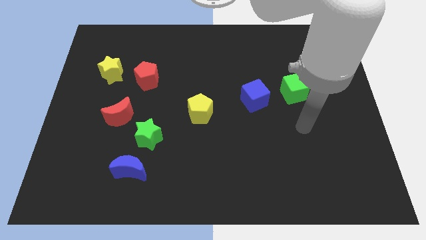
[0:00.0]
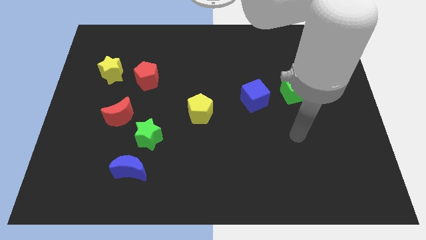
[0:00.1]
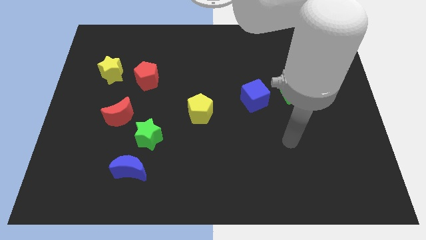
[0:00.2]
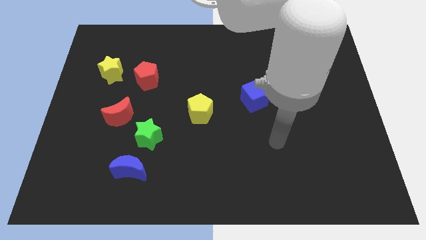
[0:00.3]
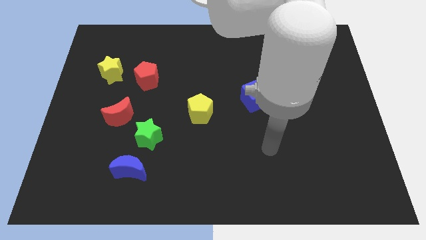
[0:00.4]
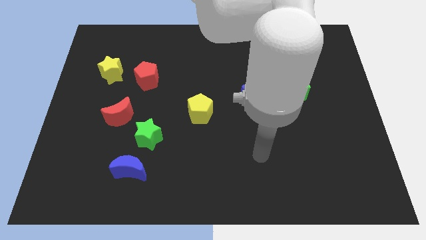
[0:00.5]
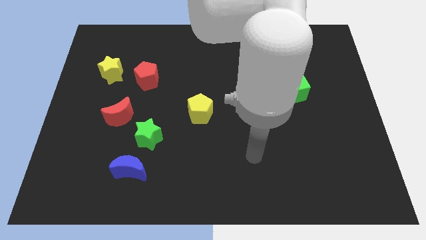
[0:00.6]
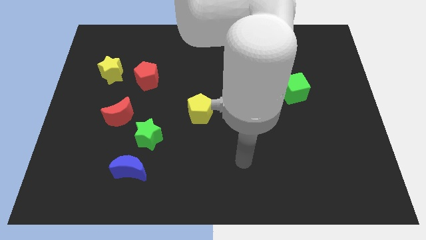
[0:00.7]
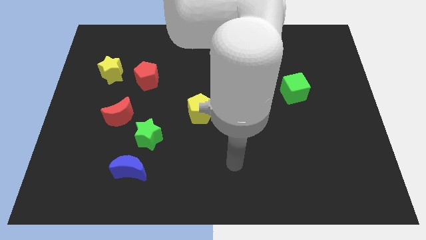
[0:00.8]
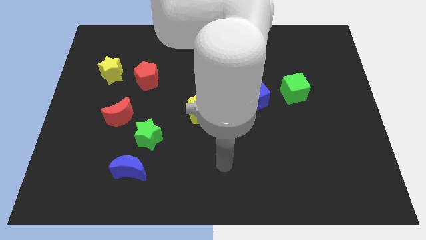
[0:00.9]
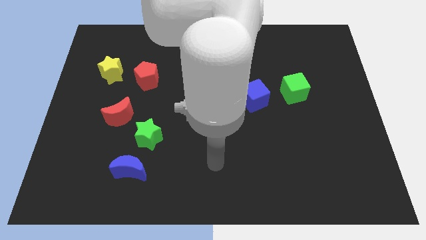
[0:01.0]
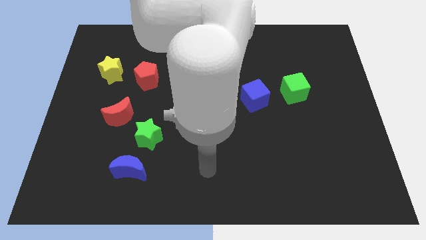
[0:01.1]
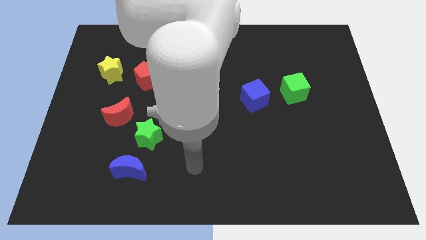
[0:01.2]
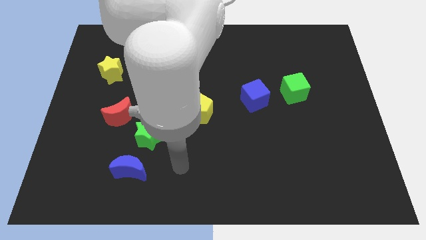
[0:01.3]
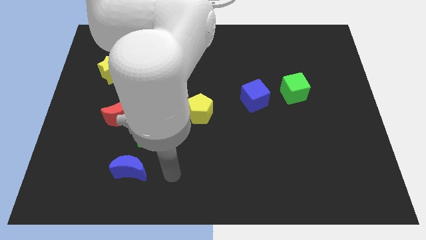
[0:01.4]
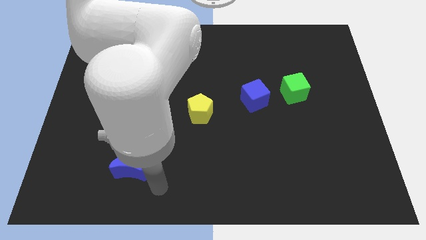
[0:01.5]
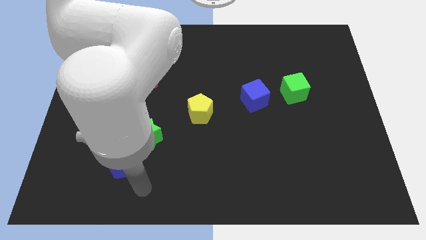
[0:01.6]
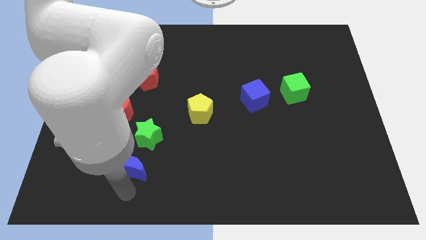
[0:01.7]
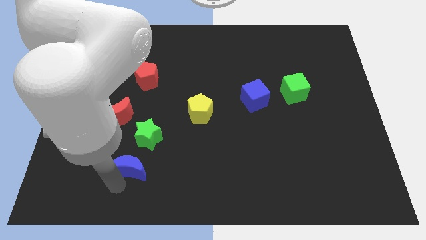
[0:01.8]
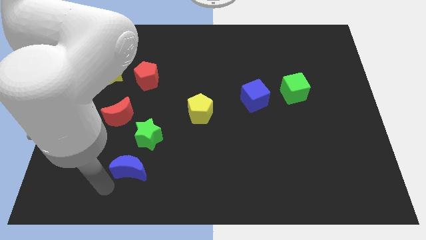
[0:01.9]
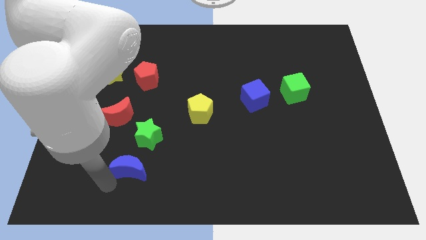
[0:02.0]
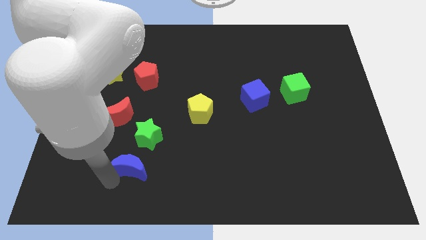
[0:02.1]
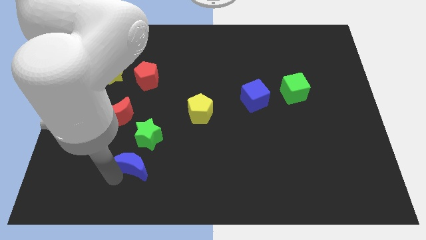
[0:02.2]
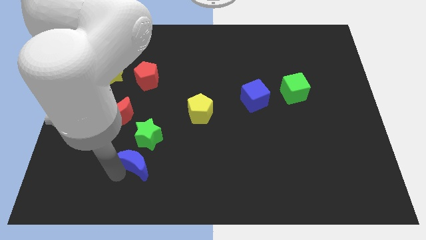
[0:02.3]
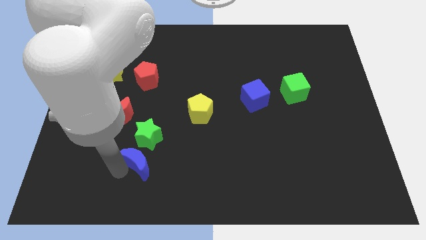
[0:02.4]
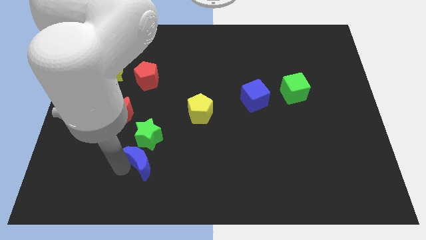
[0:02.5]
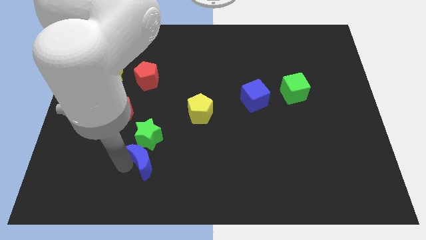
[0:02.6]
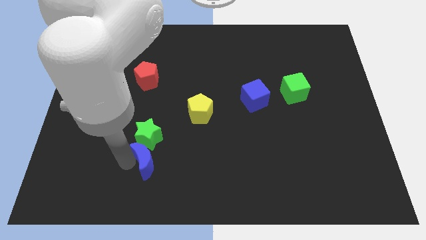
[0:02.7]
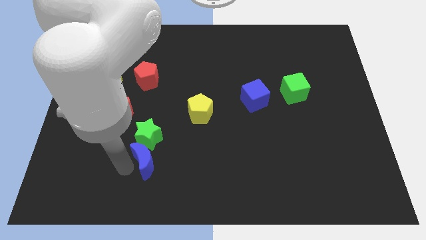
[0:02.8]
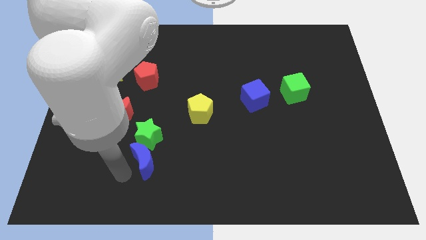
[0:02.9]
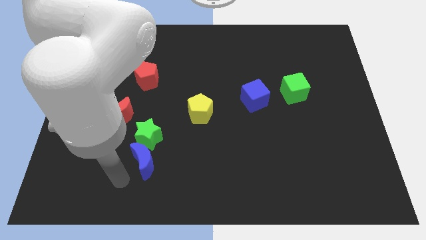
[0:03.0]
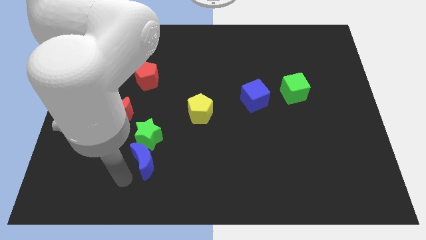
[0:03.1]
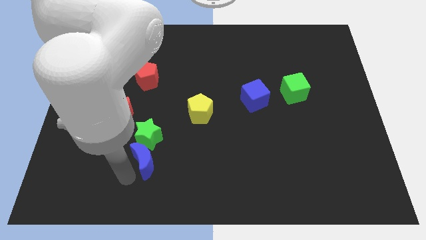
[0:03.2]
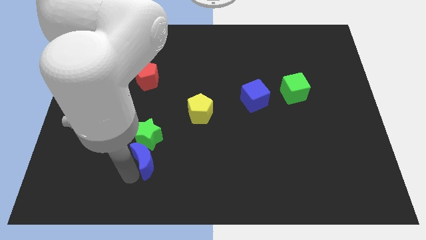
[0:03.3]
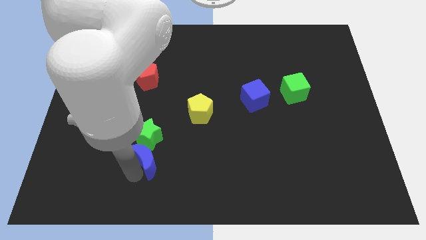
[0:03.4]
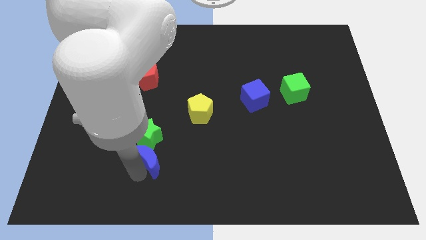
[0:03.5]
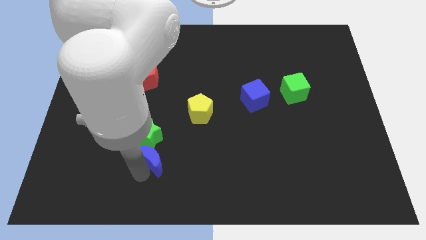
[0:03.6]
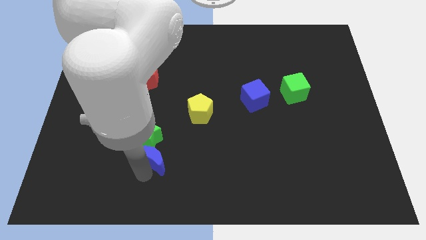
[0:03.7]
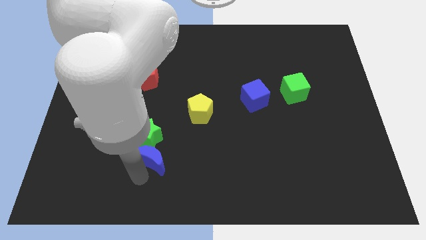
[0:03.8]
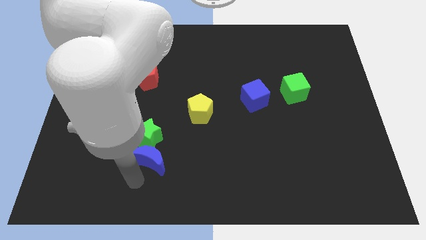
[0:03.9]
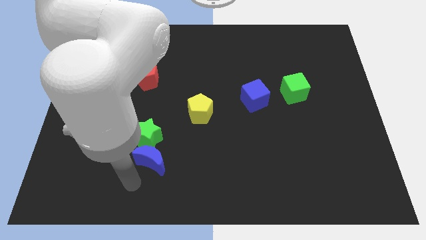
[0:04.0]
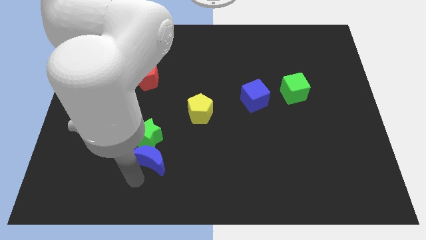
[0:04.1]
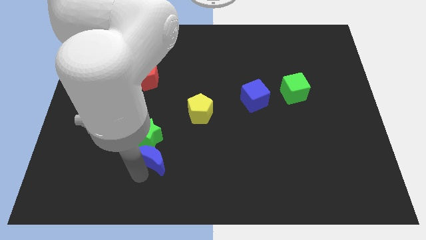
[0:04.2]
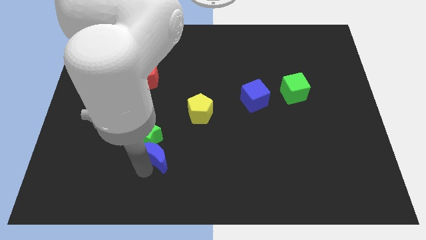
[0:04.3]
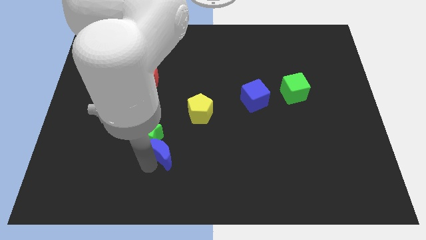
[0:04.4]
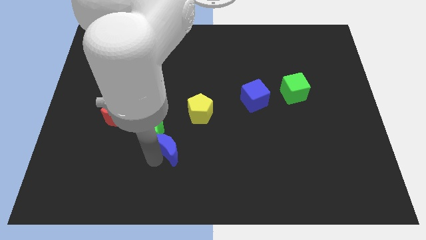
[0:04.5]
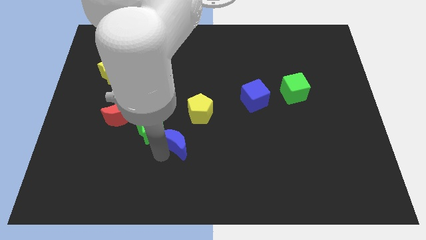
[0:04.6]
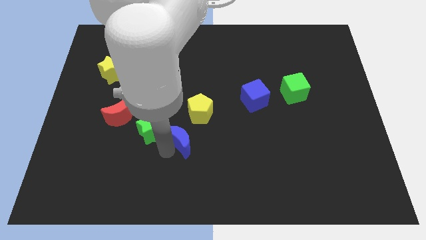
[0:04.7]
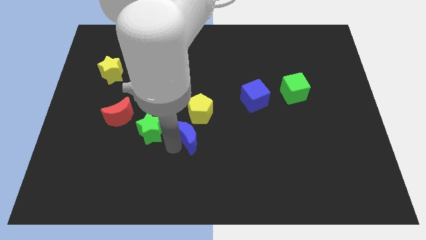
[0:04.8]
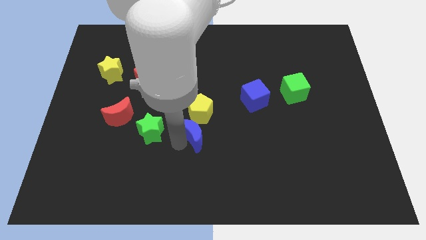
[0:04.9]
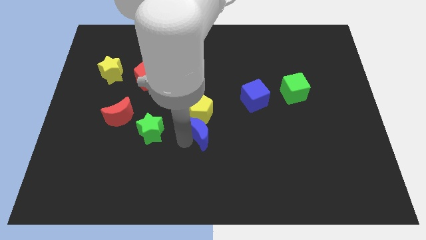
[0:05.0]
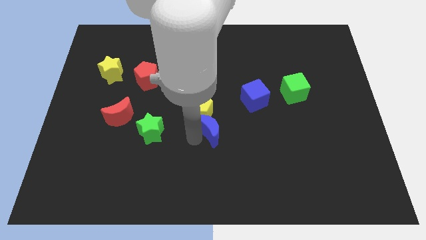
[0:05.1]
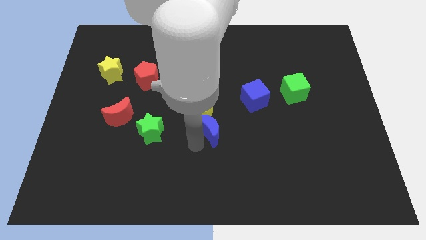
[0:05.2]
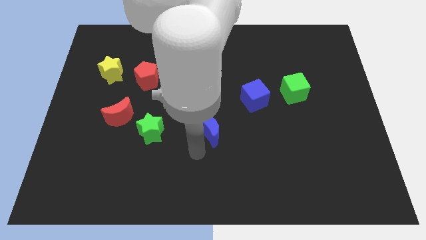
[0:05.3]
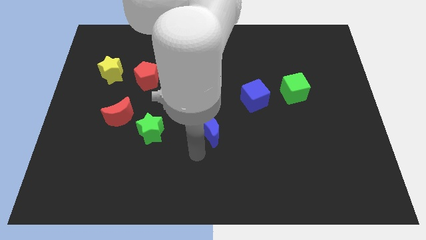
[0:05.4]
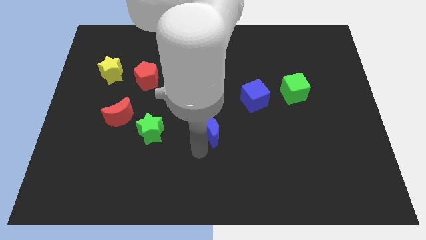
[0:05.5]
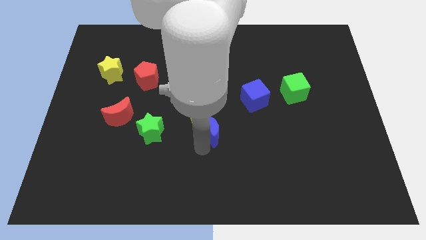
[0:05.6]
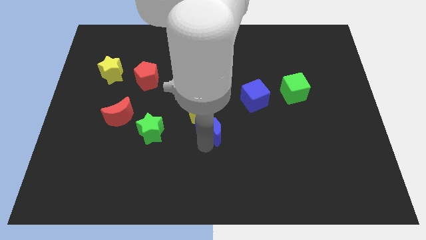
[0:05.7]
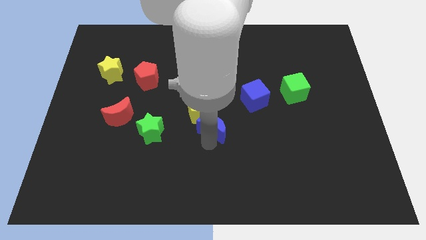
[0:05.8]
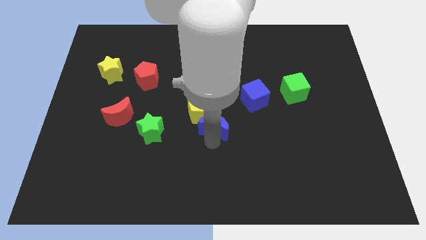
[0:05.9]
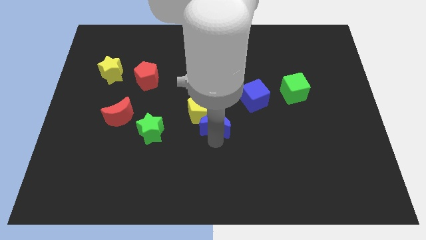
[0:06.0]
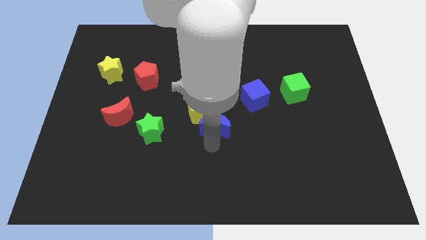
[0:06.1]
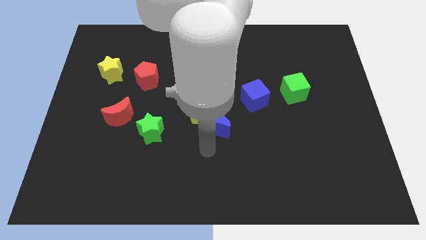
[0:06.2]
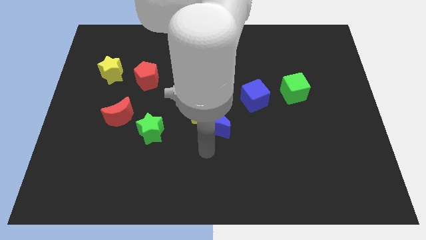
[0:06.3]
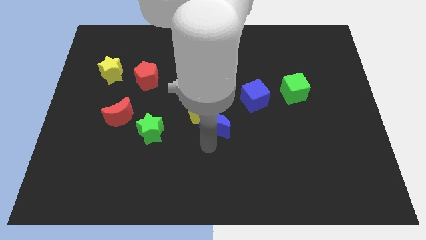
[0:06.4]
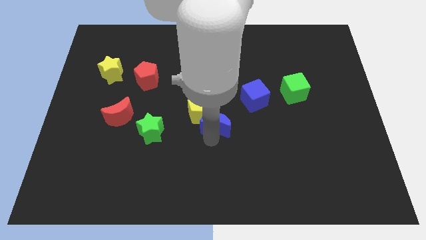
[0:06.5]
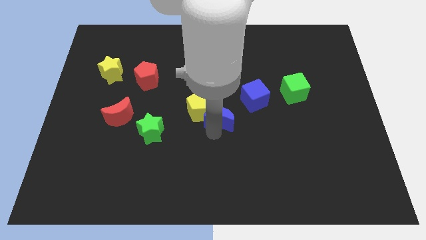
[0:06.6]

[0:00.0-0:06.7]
push the blue moon diagonally up and to the right

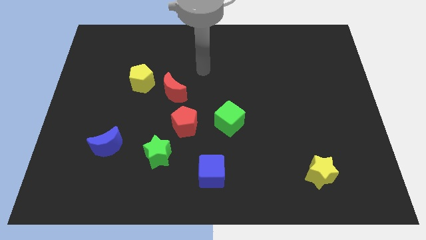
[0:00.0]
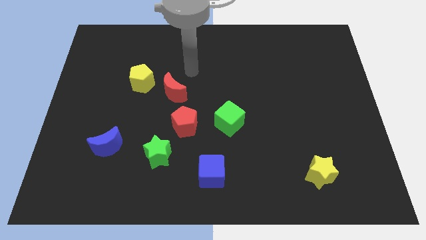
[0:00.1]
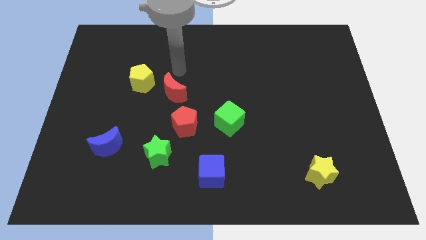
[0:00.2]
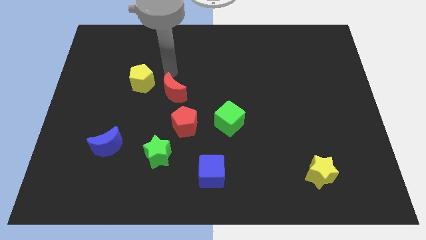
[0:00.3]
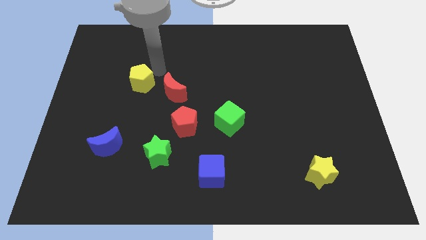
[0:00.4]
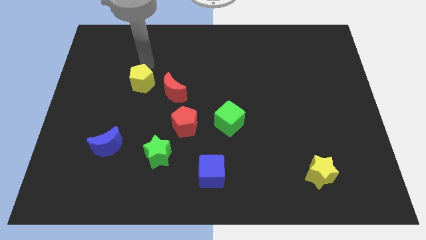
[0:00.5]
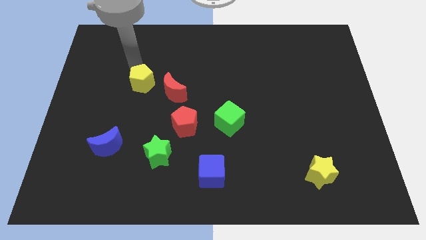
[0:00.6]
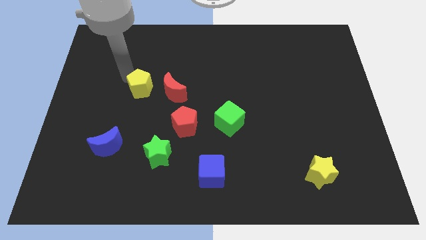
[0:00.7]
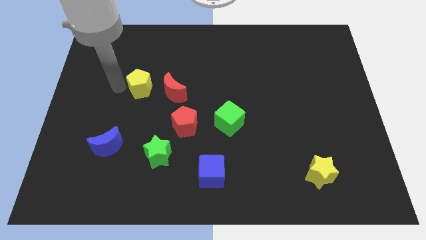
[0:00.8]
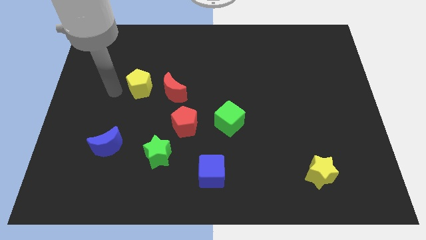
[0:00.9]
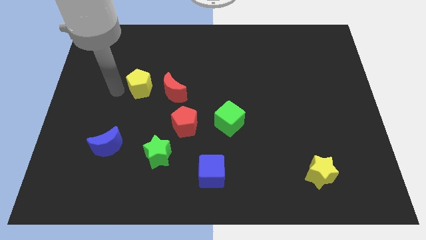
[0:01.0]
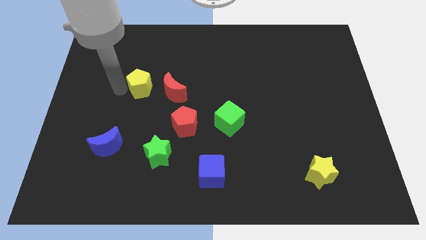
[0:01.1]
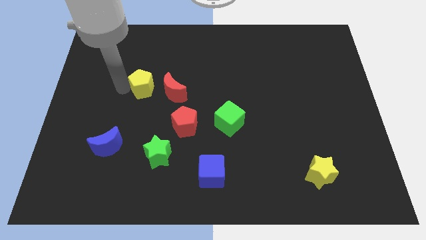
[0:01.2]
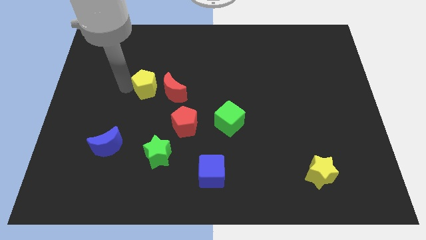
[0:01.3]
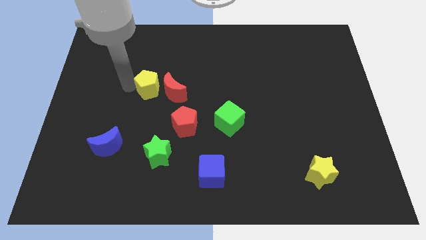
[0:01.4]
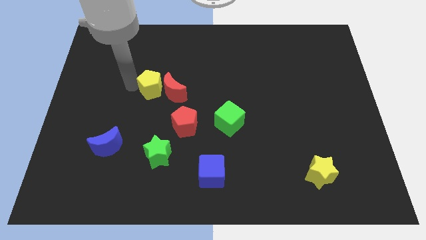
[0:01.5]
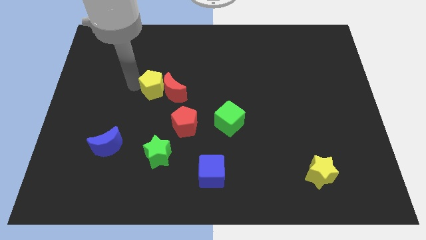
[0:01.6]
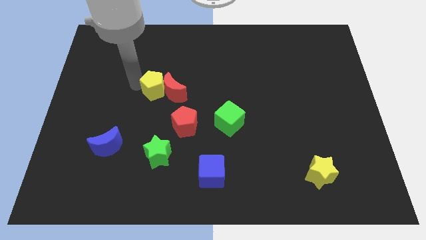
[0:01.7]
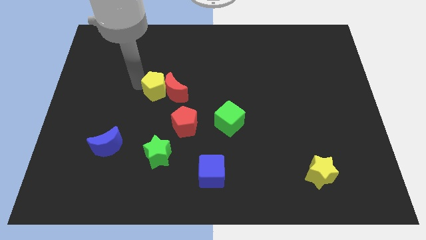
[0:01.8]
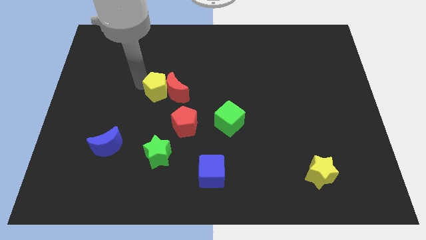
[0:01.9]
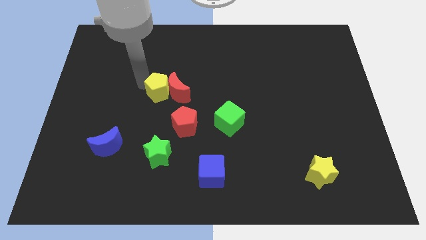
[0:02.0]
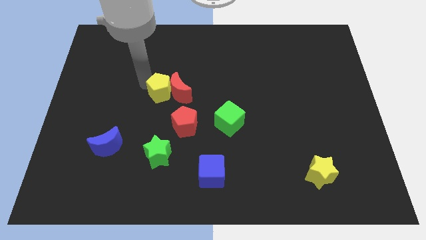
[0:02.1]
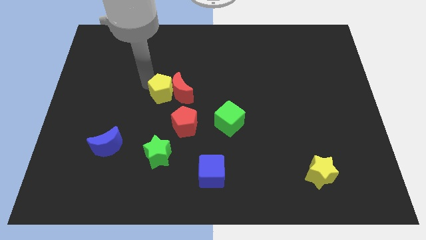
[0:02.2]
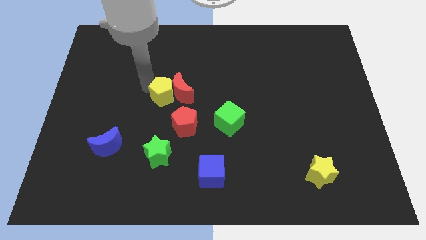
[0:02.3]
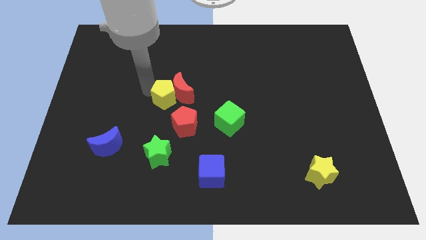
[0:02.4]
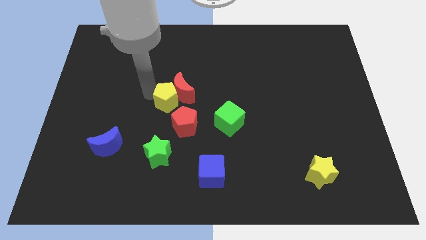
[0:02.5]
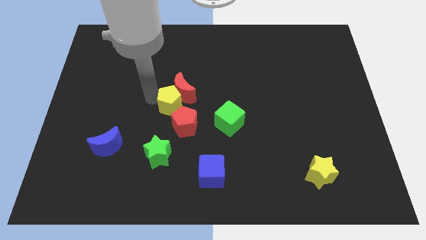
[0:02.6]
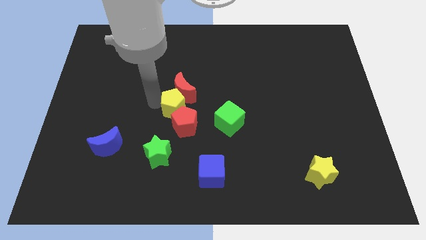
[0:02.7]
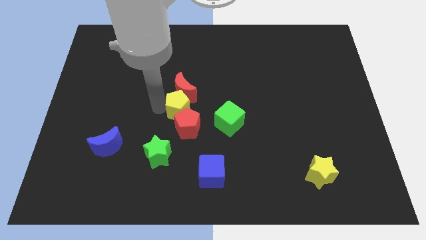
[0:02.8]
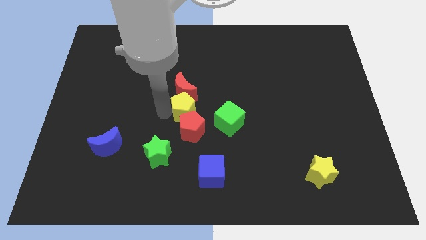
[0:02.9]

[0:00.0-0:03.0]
push the yellow pentagon to the right a little
